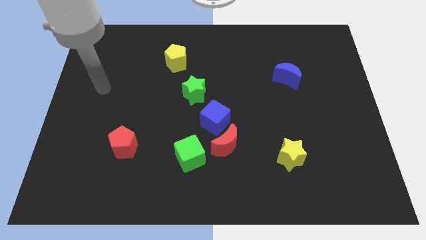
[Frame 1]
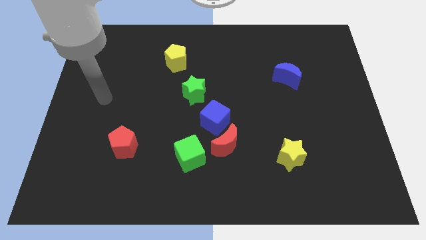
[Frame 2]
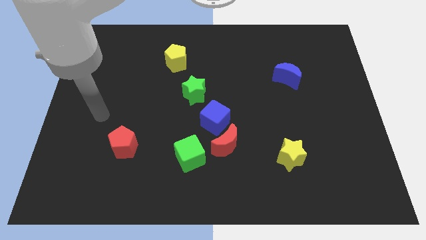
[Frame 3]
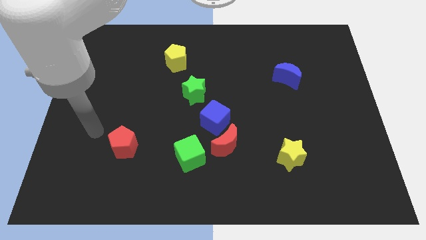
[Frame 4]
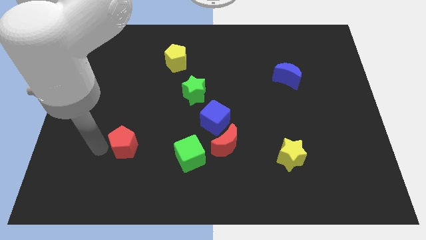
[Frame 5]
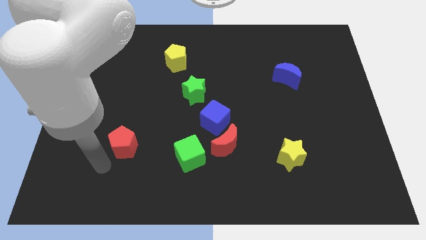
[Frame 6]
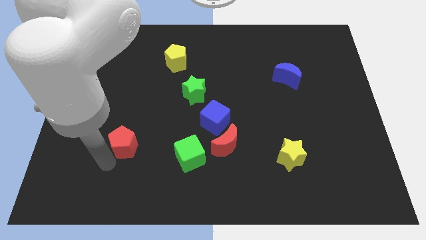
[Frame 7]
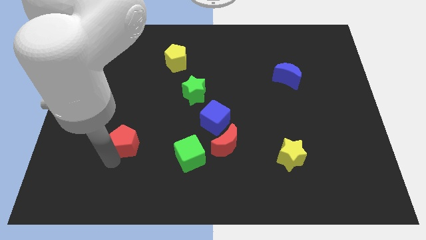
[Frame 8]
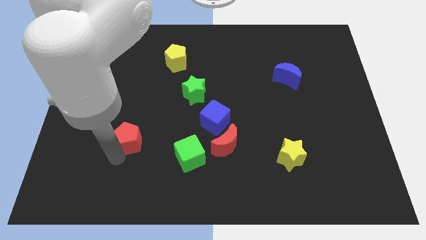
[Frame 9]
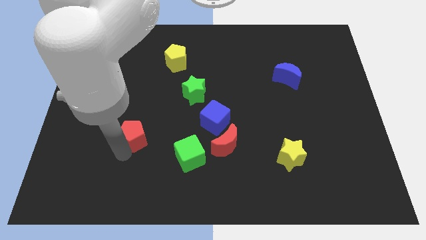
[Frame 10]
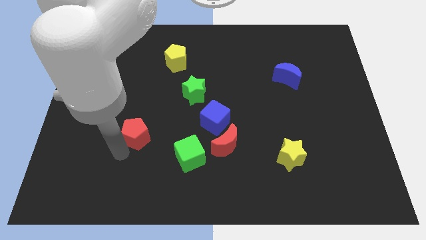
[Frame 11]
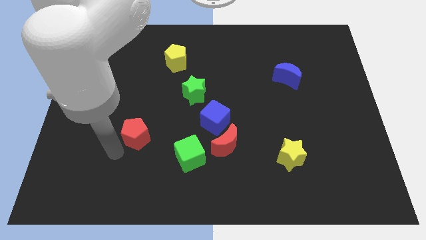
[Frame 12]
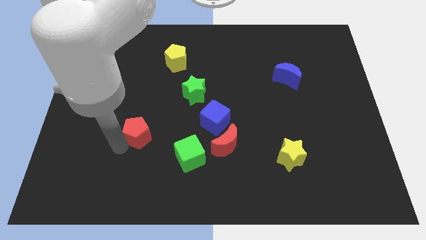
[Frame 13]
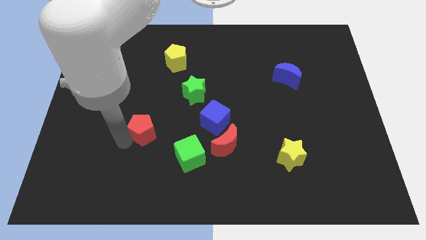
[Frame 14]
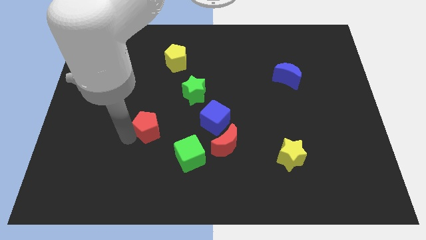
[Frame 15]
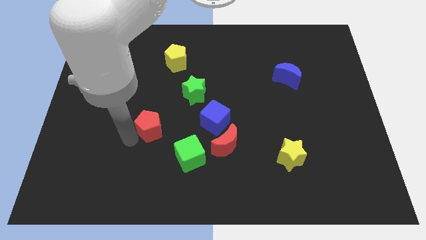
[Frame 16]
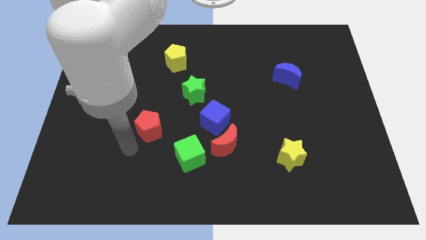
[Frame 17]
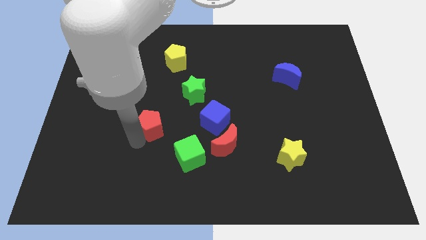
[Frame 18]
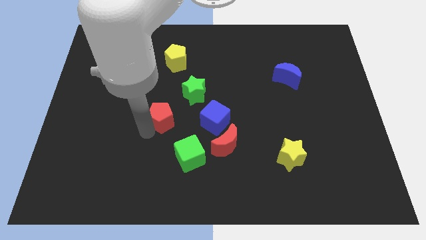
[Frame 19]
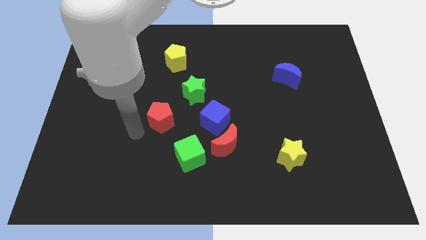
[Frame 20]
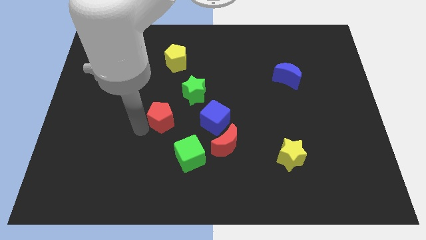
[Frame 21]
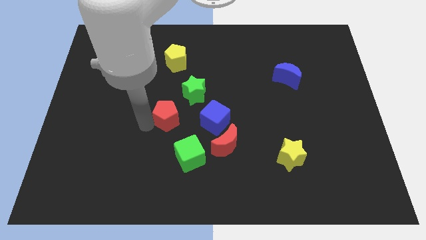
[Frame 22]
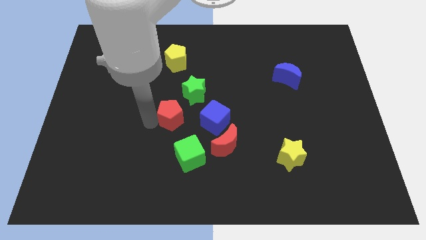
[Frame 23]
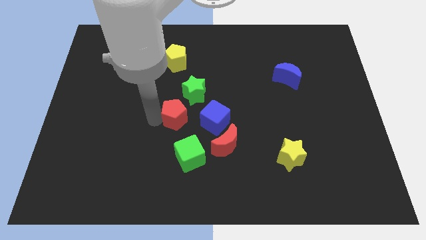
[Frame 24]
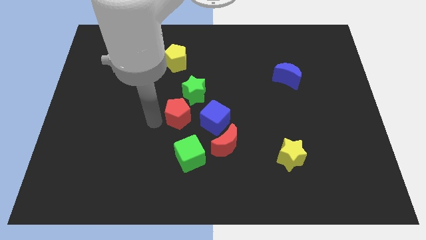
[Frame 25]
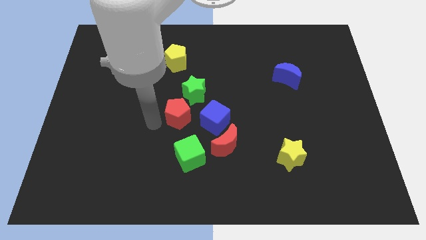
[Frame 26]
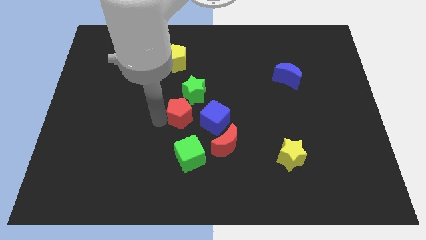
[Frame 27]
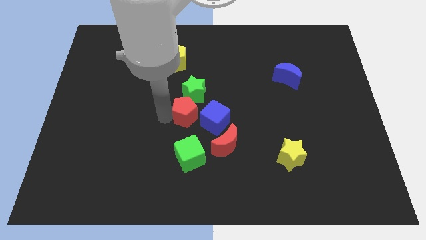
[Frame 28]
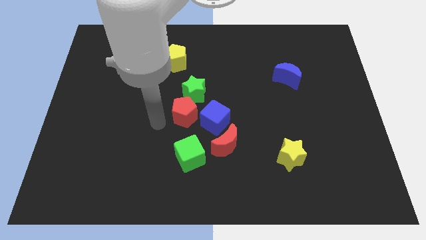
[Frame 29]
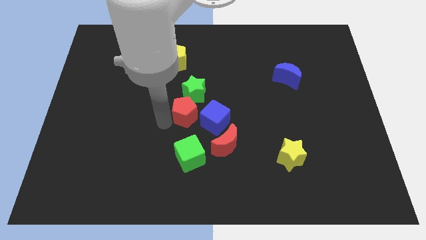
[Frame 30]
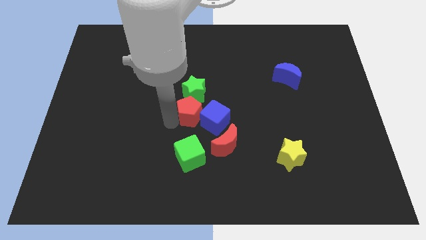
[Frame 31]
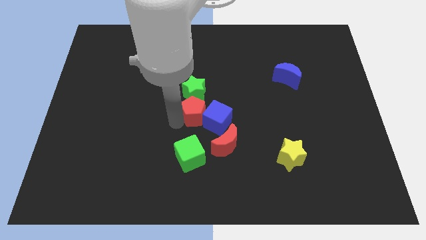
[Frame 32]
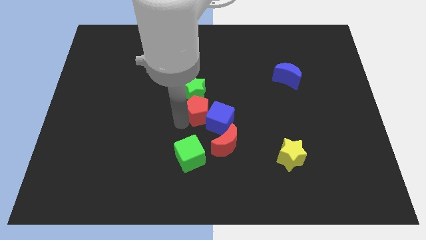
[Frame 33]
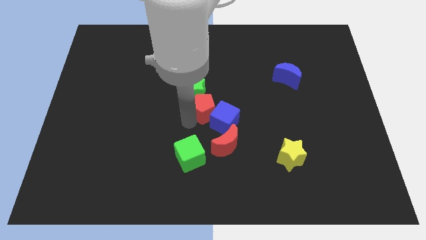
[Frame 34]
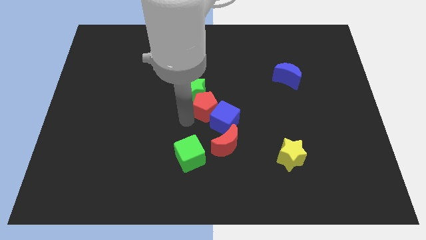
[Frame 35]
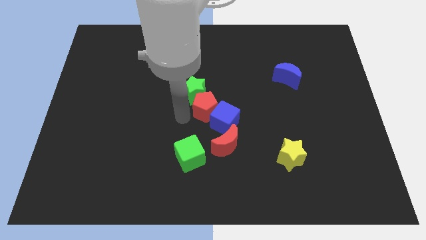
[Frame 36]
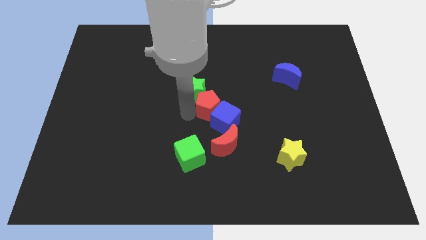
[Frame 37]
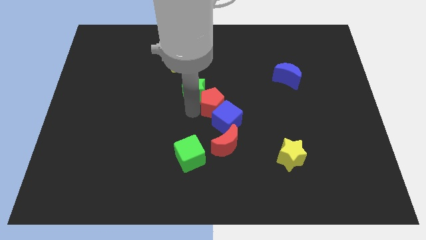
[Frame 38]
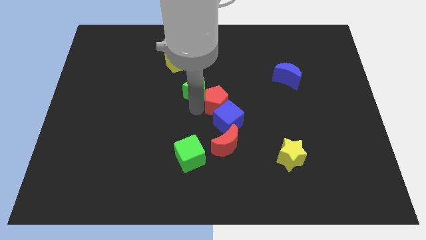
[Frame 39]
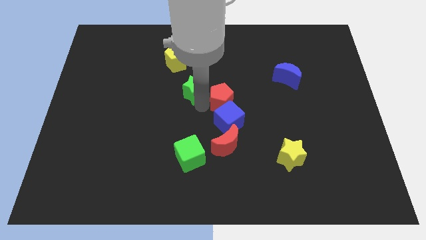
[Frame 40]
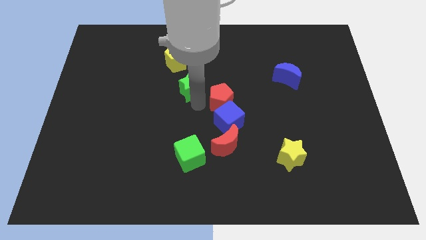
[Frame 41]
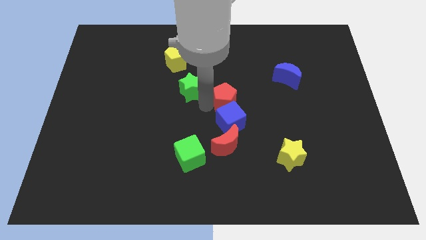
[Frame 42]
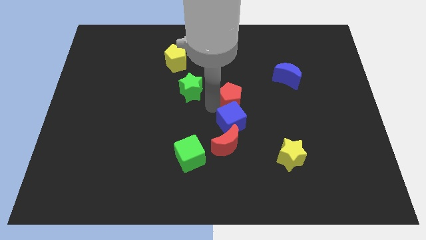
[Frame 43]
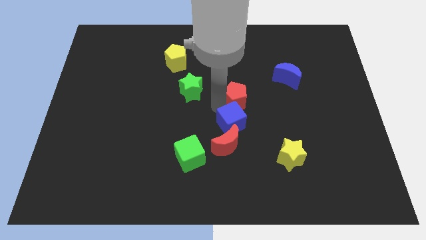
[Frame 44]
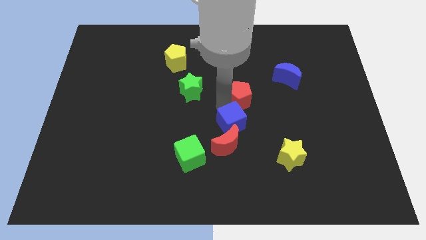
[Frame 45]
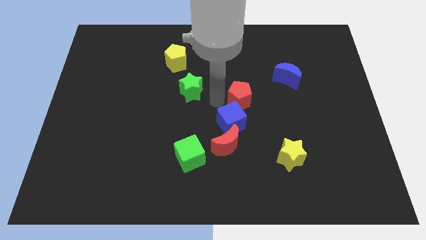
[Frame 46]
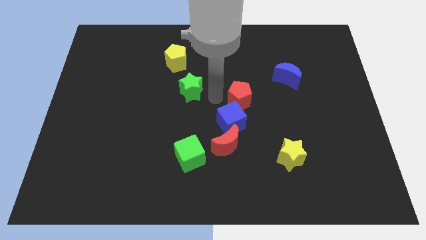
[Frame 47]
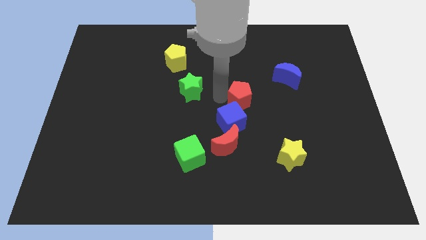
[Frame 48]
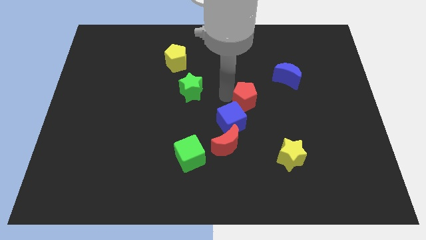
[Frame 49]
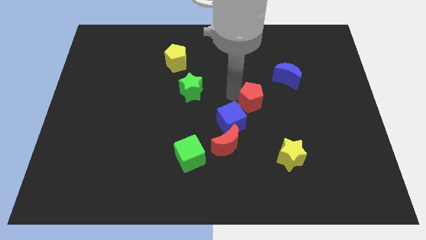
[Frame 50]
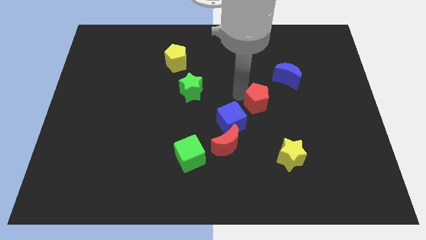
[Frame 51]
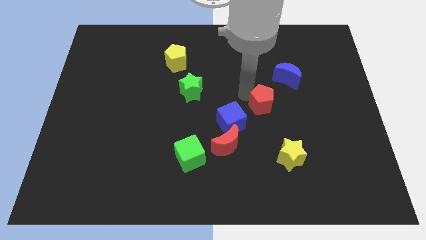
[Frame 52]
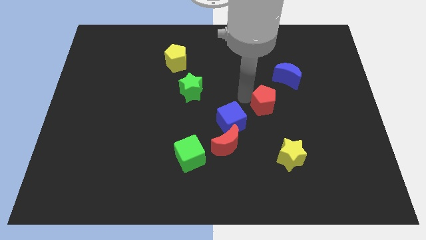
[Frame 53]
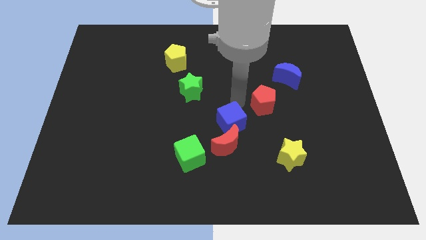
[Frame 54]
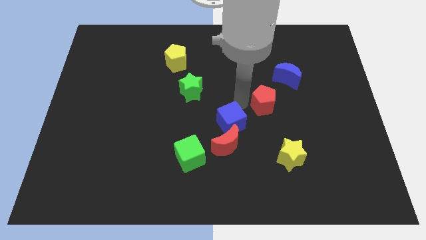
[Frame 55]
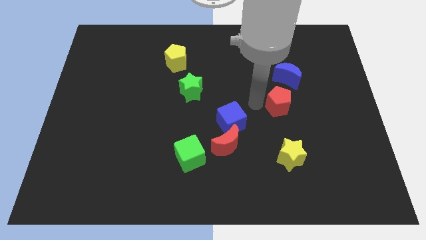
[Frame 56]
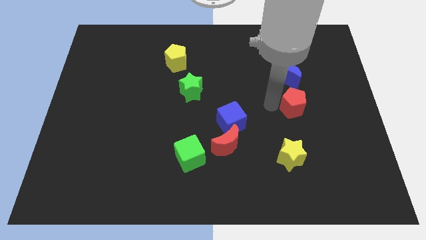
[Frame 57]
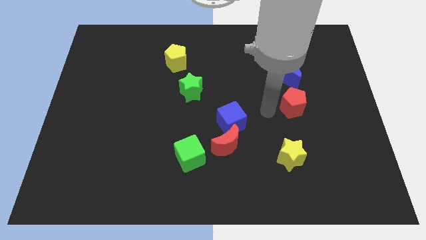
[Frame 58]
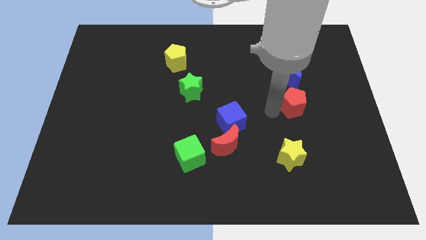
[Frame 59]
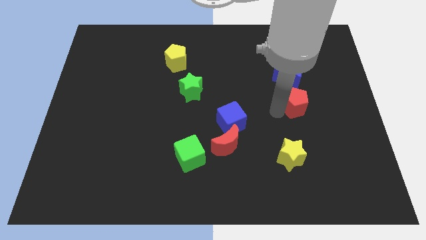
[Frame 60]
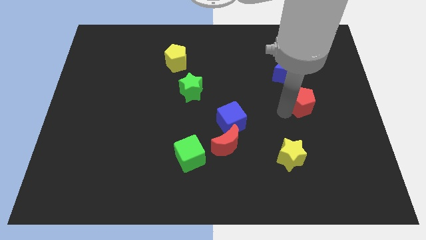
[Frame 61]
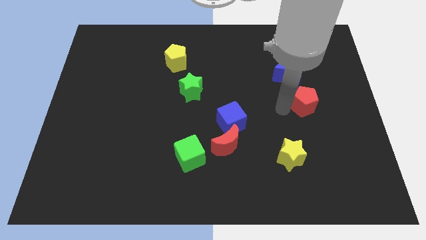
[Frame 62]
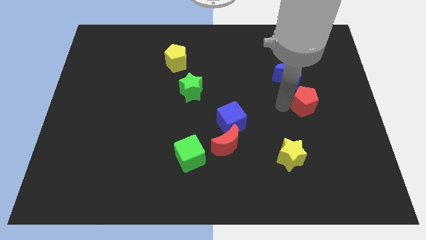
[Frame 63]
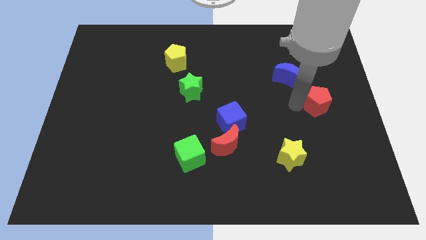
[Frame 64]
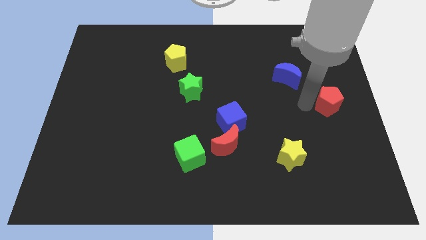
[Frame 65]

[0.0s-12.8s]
put the red pentagon to the right side of the board
